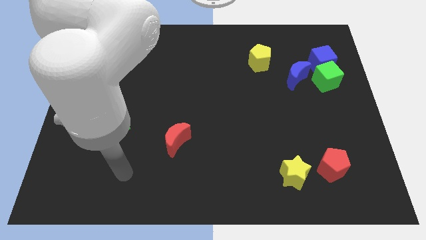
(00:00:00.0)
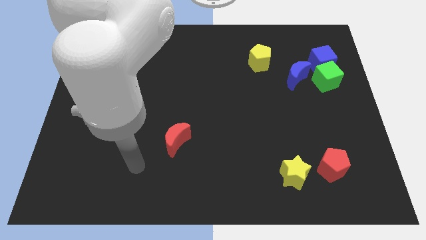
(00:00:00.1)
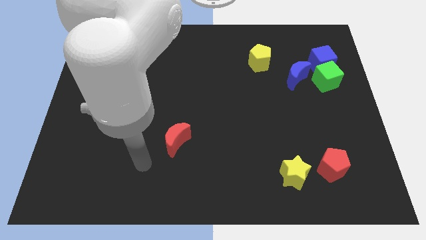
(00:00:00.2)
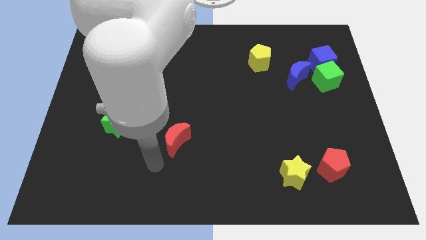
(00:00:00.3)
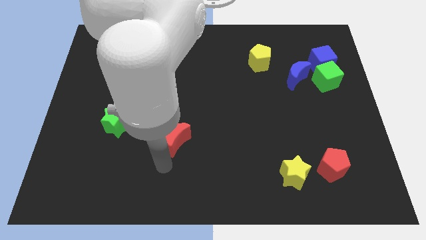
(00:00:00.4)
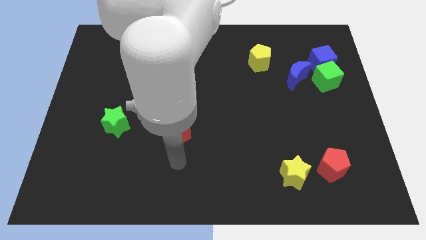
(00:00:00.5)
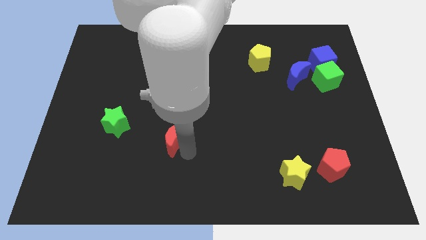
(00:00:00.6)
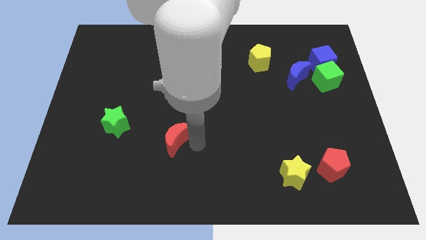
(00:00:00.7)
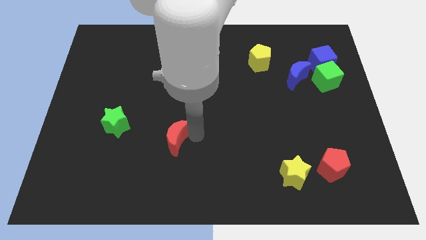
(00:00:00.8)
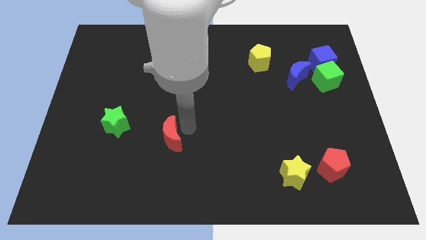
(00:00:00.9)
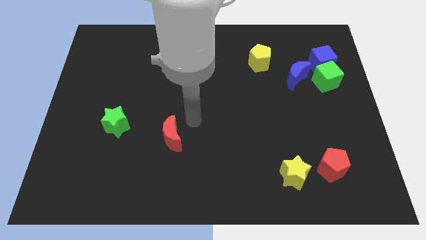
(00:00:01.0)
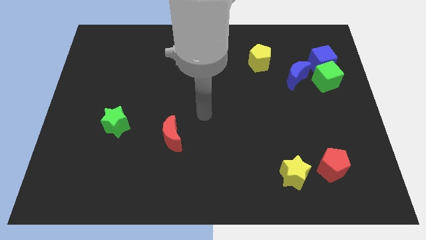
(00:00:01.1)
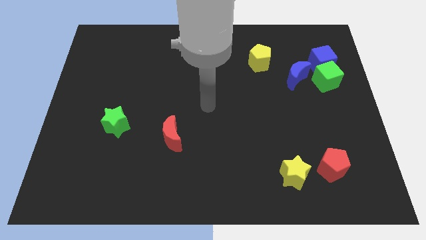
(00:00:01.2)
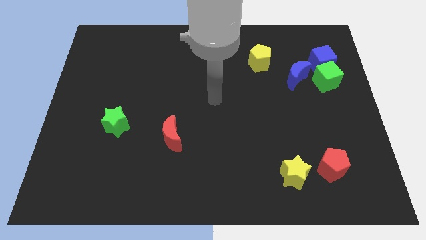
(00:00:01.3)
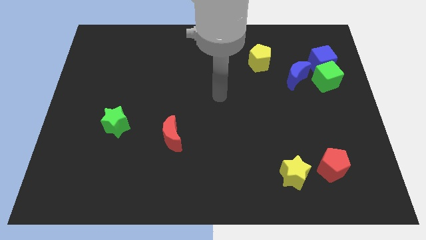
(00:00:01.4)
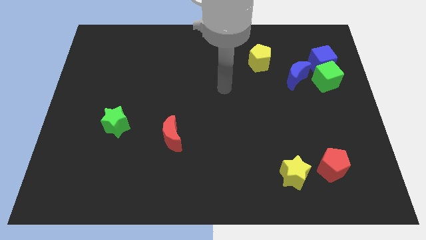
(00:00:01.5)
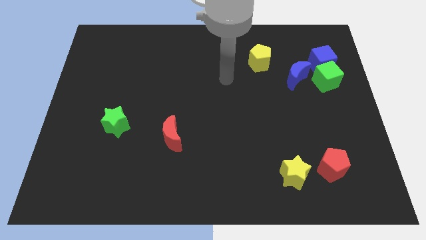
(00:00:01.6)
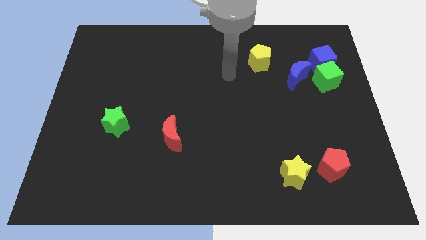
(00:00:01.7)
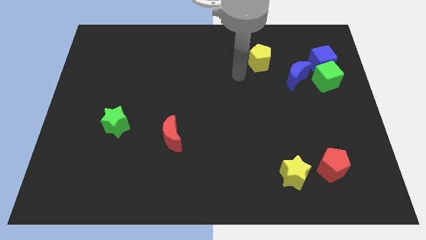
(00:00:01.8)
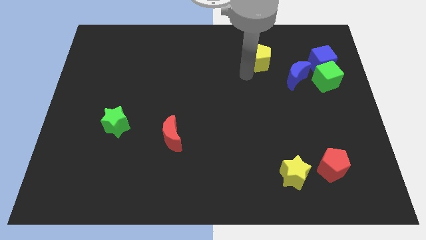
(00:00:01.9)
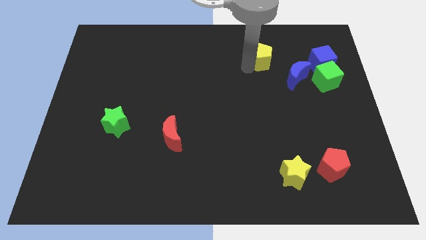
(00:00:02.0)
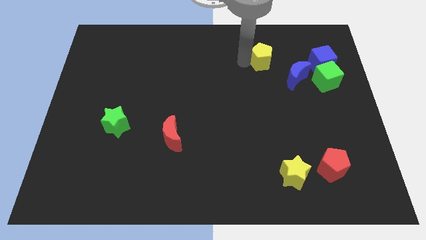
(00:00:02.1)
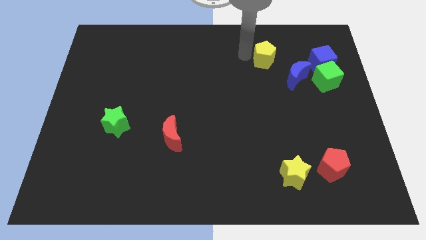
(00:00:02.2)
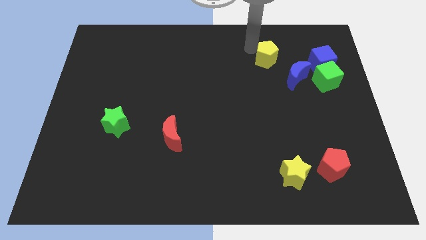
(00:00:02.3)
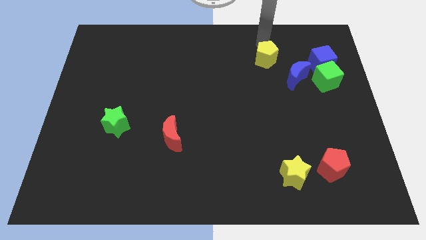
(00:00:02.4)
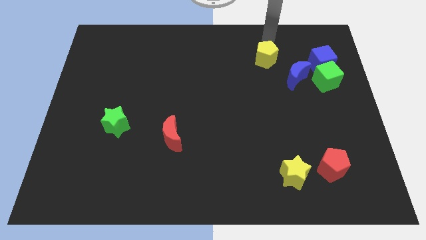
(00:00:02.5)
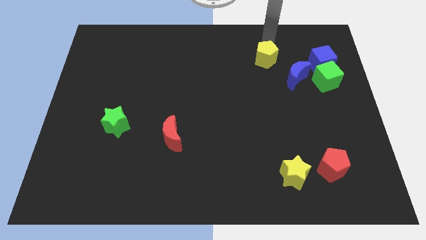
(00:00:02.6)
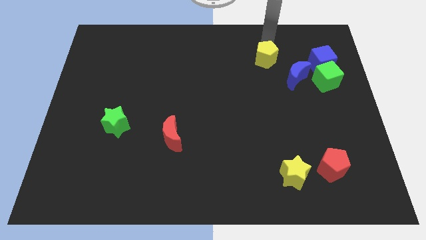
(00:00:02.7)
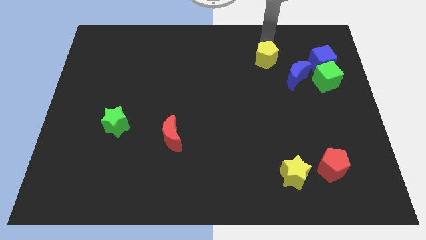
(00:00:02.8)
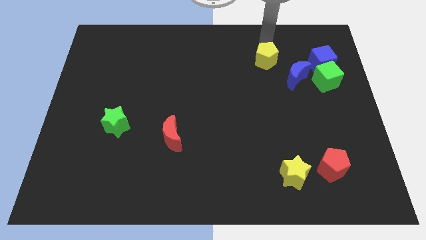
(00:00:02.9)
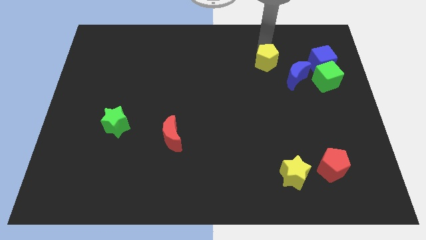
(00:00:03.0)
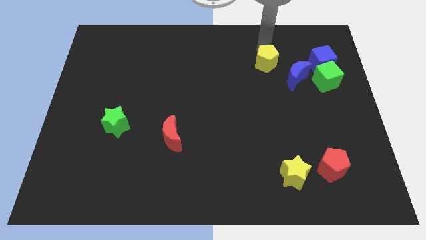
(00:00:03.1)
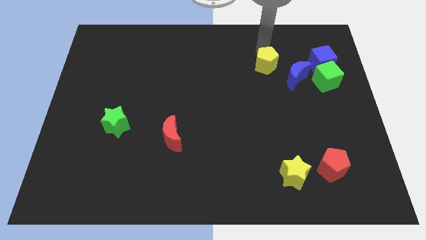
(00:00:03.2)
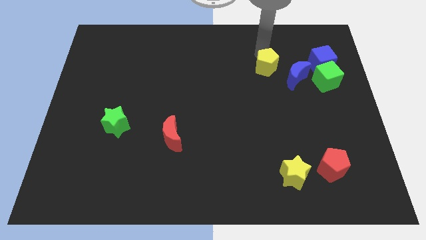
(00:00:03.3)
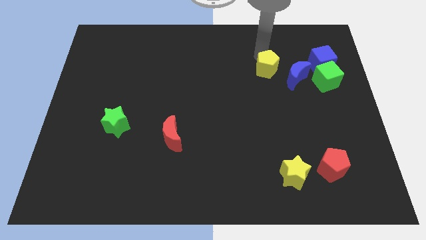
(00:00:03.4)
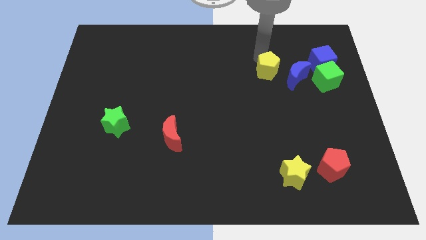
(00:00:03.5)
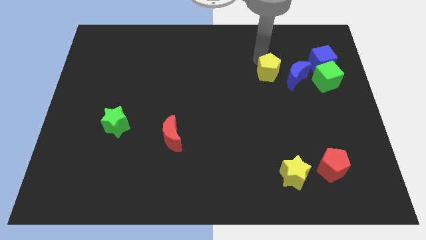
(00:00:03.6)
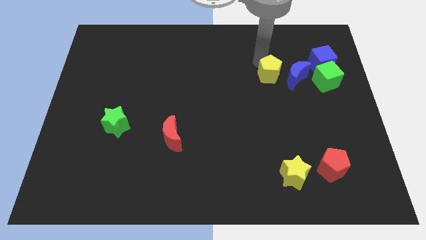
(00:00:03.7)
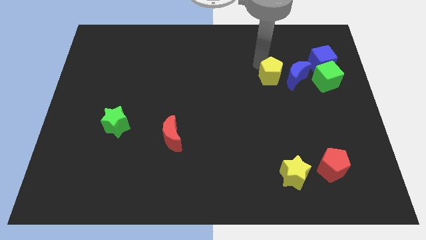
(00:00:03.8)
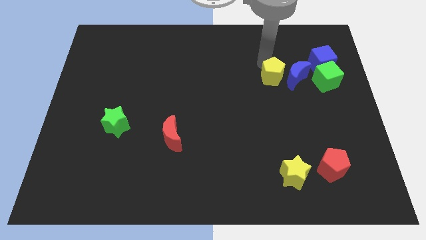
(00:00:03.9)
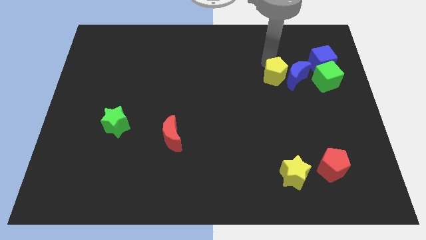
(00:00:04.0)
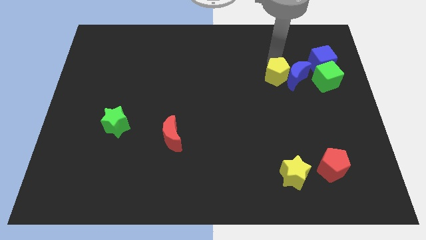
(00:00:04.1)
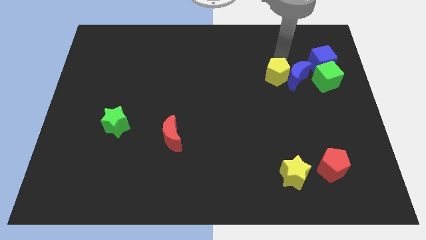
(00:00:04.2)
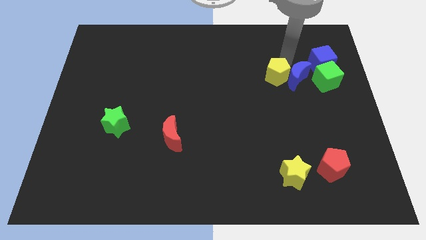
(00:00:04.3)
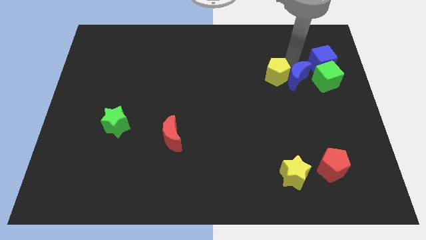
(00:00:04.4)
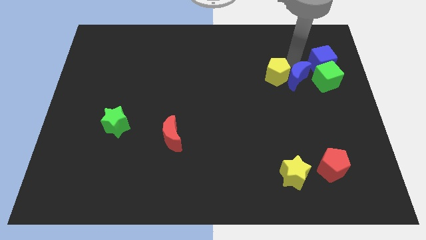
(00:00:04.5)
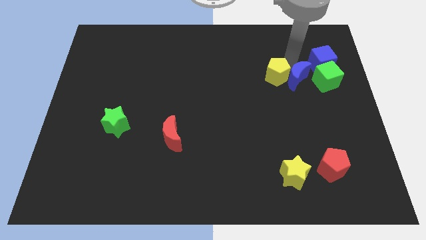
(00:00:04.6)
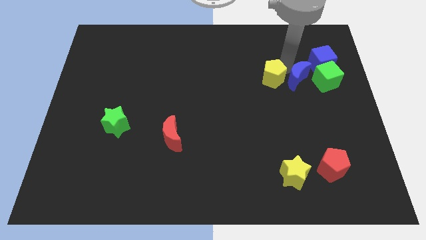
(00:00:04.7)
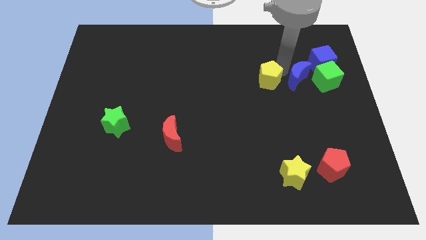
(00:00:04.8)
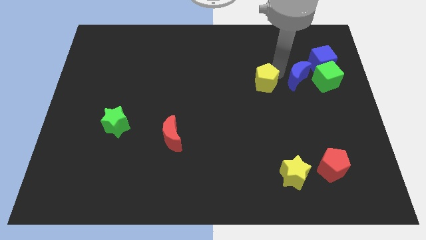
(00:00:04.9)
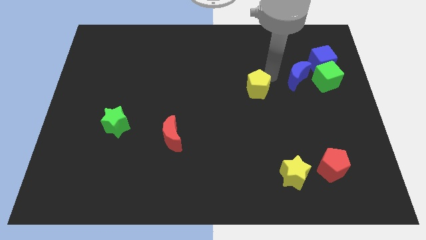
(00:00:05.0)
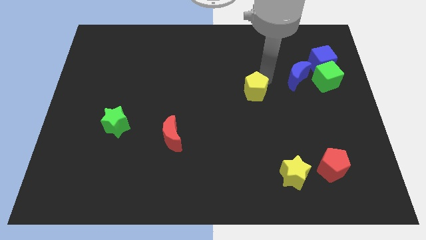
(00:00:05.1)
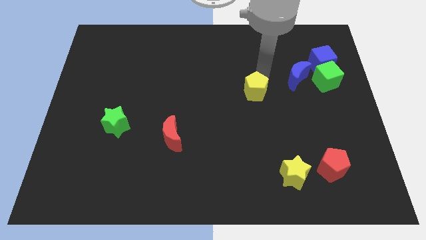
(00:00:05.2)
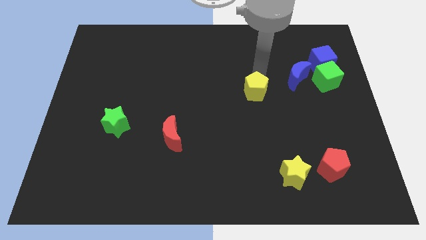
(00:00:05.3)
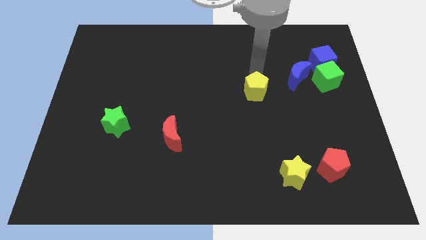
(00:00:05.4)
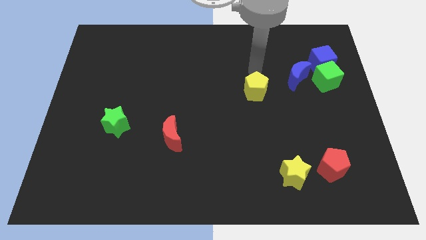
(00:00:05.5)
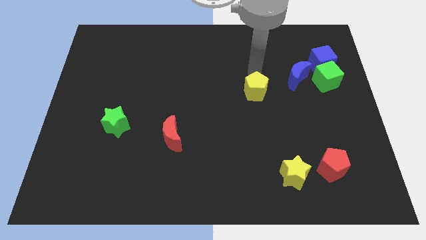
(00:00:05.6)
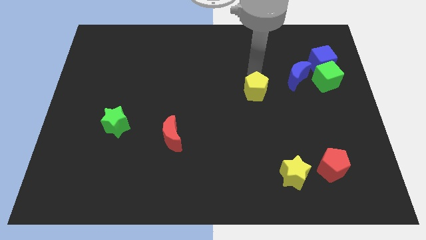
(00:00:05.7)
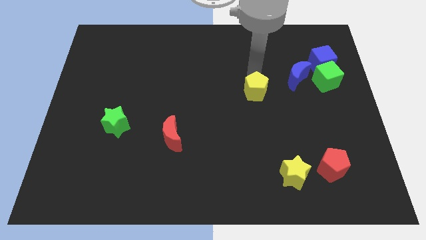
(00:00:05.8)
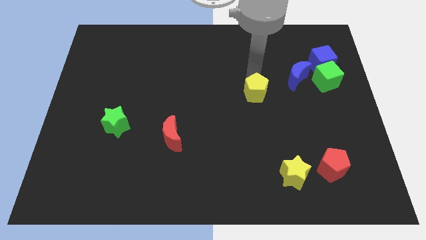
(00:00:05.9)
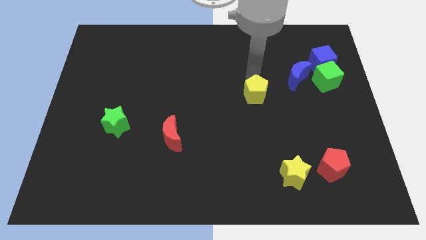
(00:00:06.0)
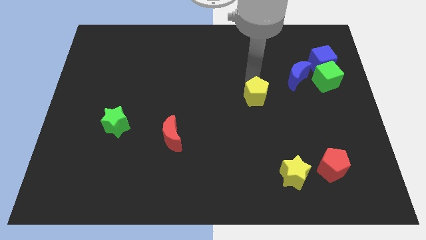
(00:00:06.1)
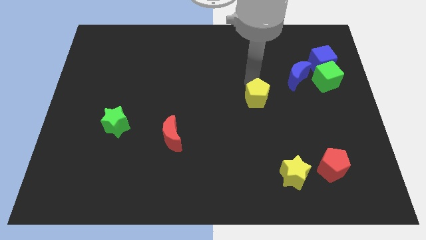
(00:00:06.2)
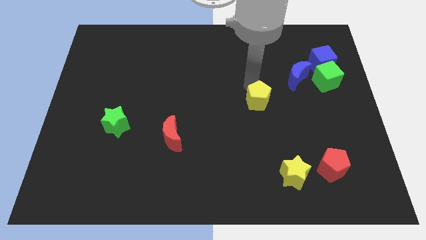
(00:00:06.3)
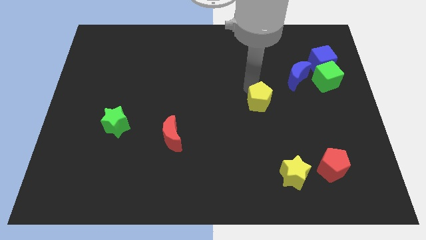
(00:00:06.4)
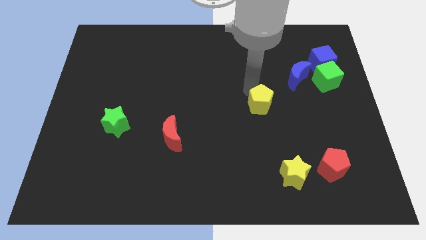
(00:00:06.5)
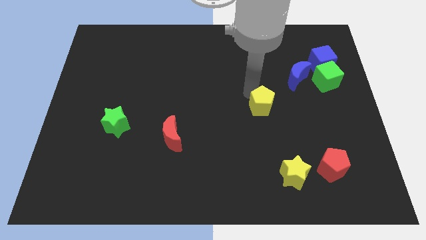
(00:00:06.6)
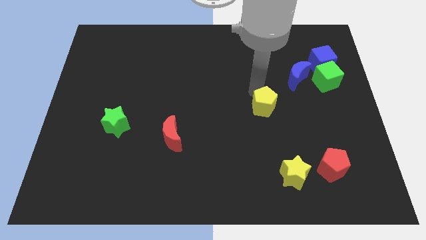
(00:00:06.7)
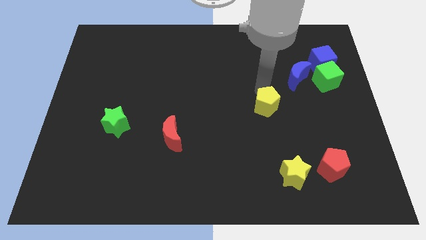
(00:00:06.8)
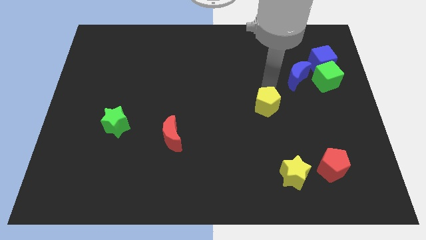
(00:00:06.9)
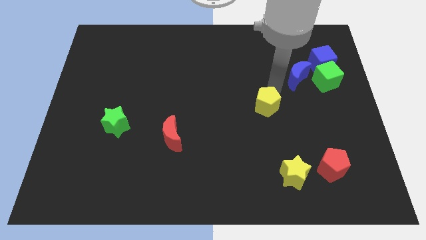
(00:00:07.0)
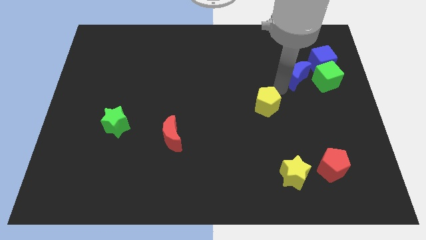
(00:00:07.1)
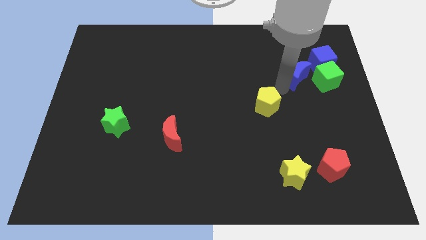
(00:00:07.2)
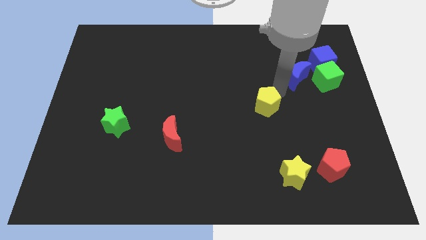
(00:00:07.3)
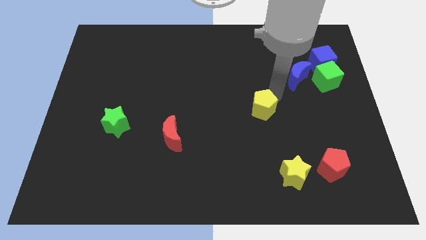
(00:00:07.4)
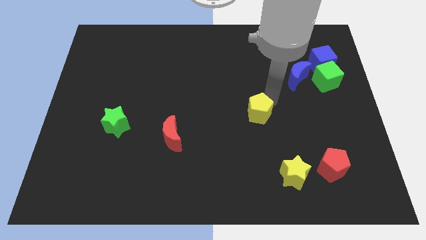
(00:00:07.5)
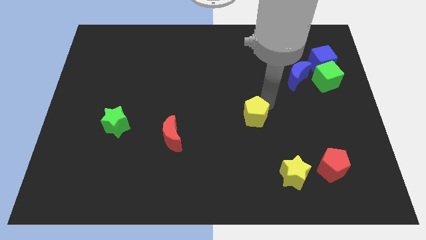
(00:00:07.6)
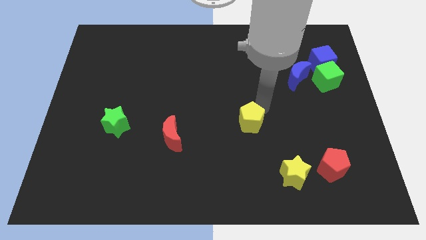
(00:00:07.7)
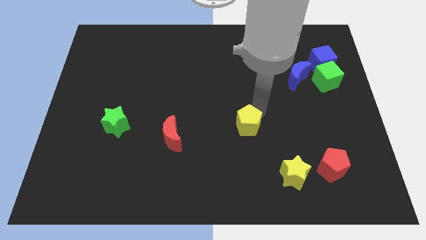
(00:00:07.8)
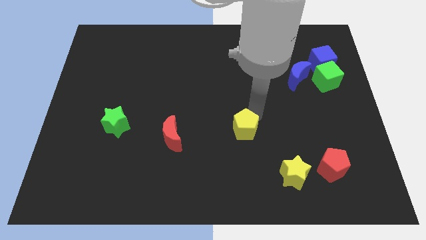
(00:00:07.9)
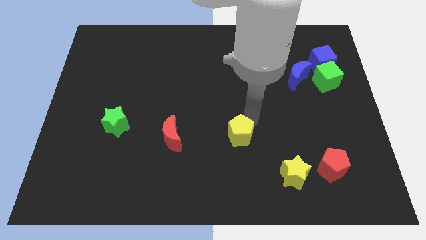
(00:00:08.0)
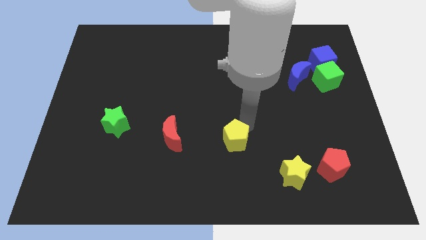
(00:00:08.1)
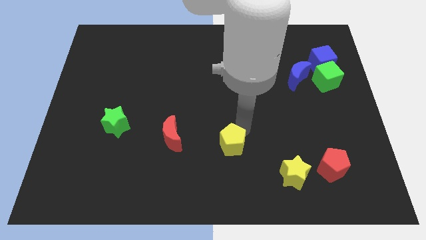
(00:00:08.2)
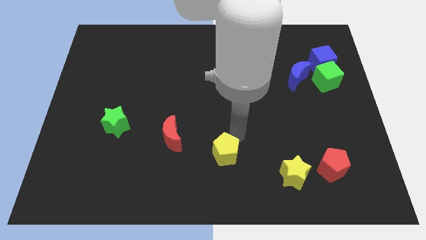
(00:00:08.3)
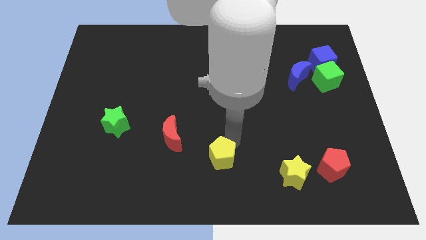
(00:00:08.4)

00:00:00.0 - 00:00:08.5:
slide the yellow pentagon to the bottom side
